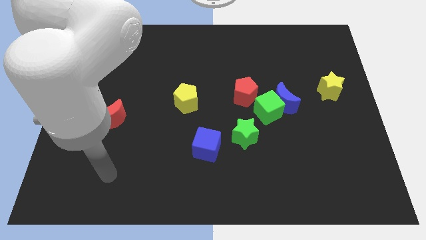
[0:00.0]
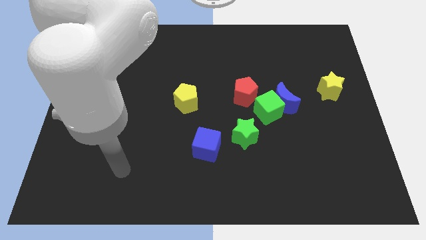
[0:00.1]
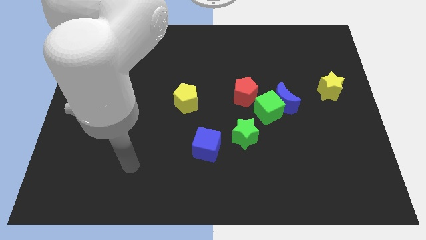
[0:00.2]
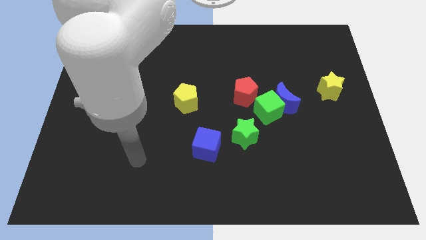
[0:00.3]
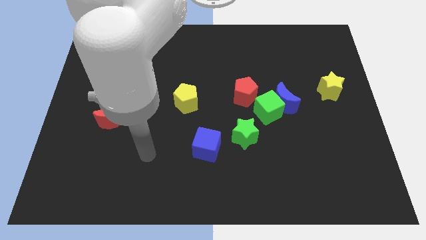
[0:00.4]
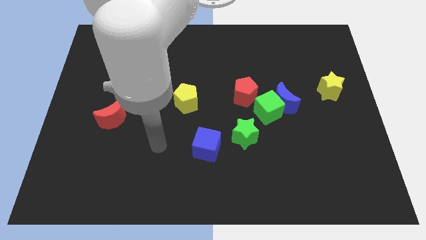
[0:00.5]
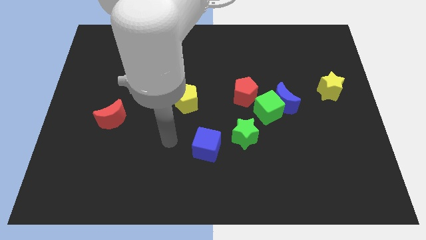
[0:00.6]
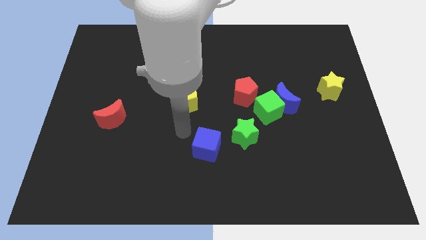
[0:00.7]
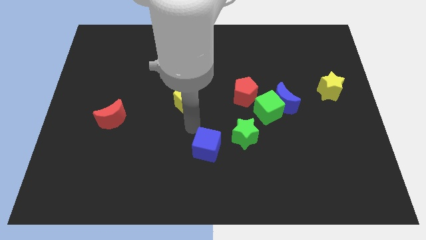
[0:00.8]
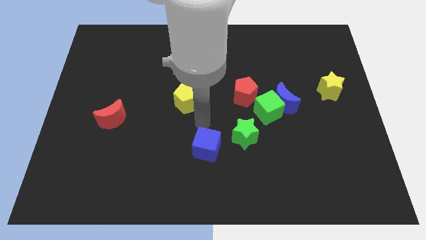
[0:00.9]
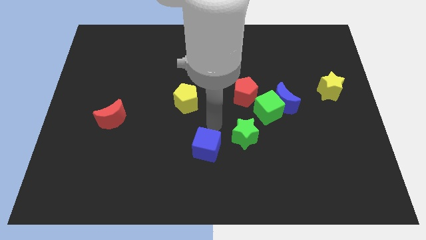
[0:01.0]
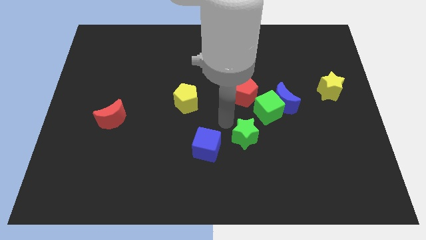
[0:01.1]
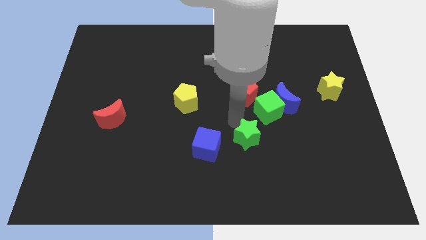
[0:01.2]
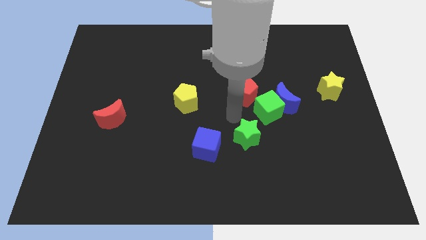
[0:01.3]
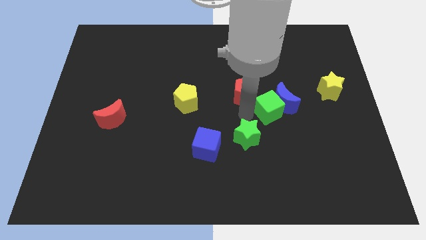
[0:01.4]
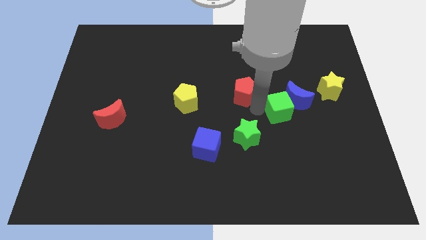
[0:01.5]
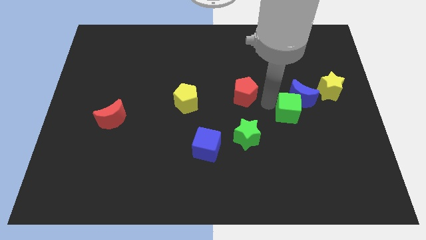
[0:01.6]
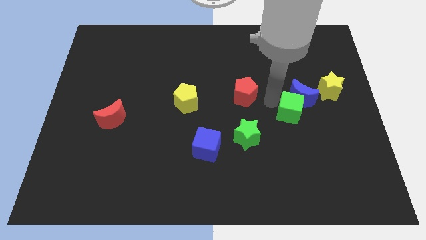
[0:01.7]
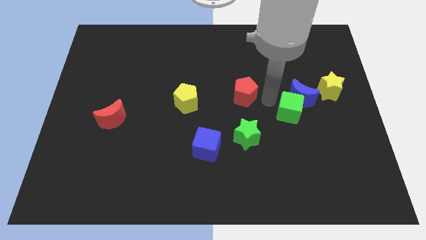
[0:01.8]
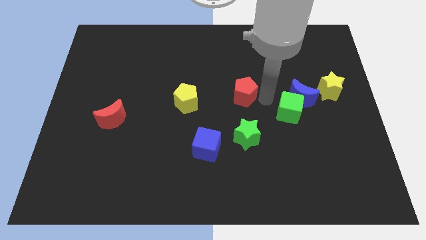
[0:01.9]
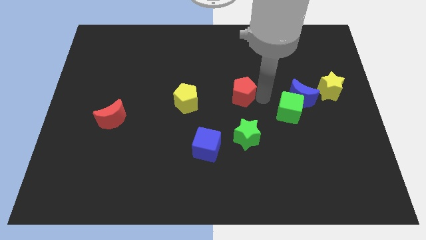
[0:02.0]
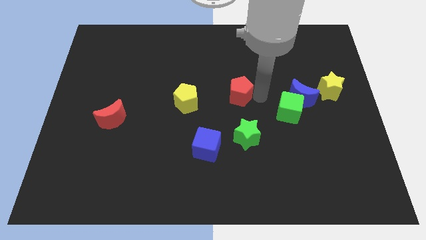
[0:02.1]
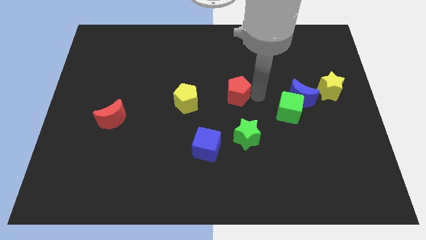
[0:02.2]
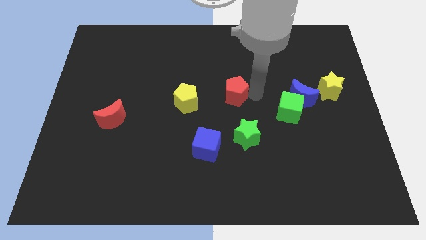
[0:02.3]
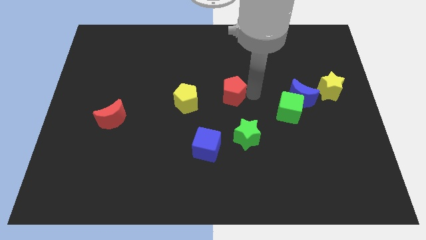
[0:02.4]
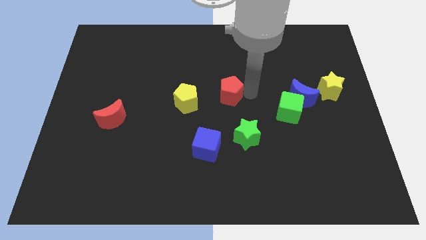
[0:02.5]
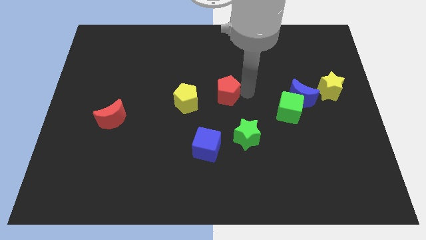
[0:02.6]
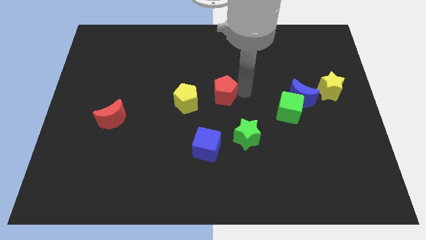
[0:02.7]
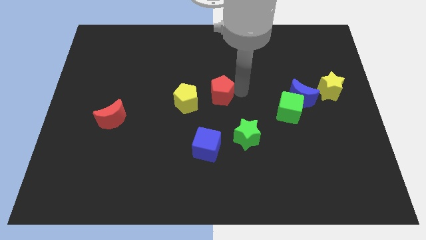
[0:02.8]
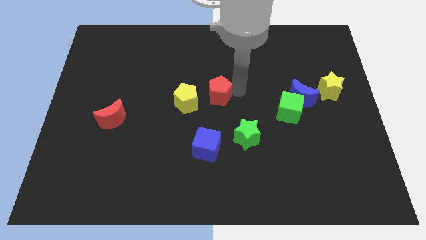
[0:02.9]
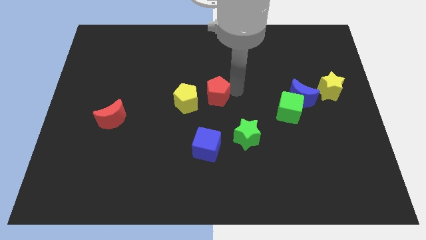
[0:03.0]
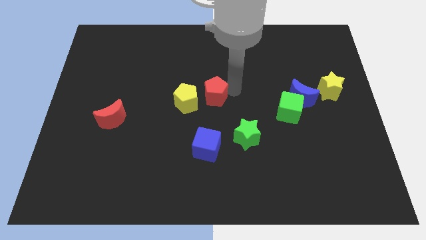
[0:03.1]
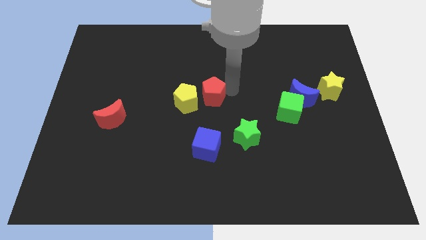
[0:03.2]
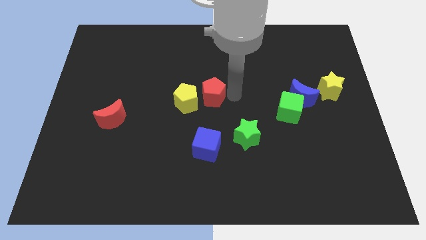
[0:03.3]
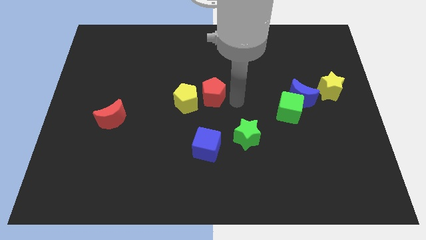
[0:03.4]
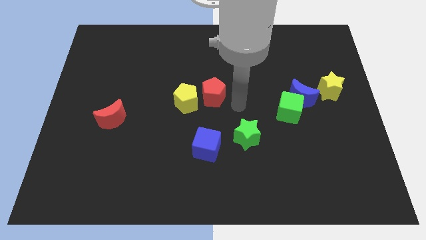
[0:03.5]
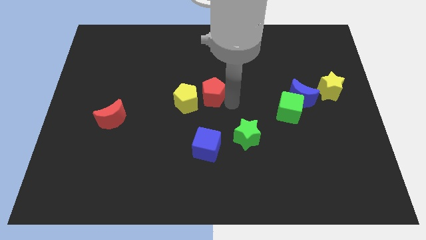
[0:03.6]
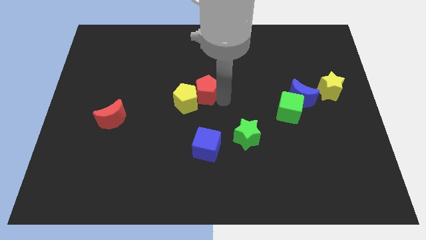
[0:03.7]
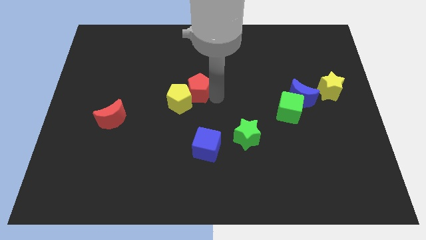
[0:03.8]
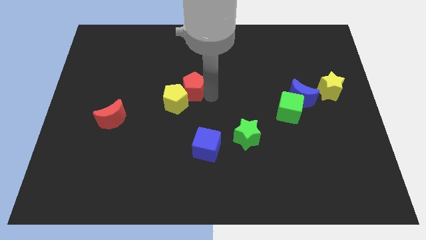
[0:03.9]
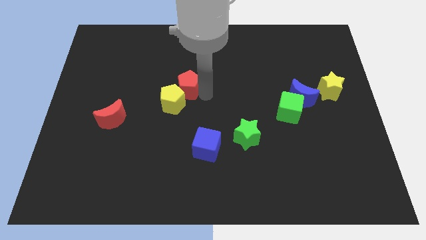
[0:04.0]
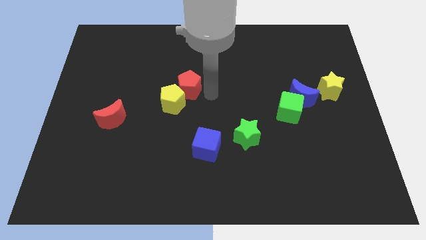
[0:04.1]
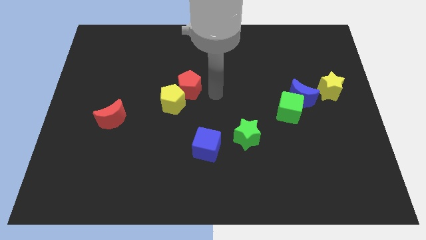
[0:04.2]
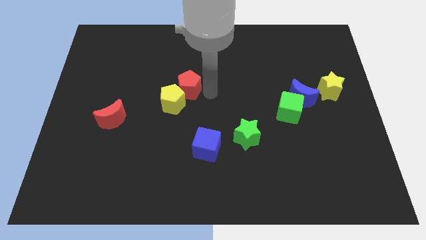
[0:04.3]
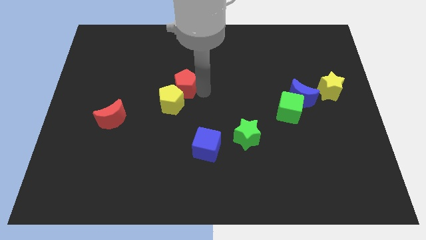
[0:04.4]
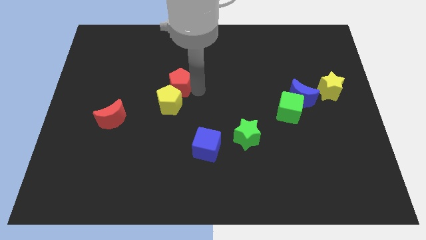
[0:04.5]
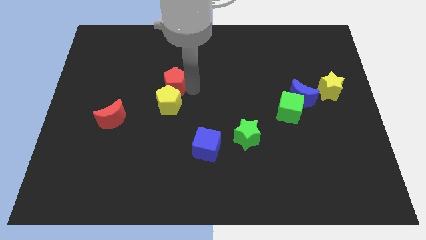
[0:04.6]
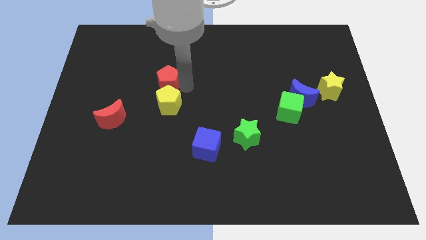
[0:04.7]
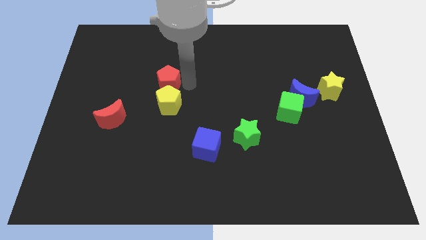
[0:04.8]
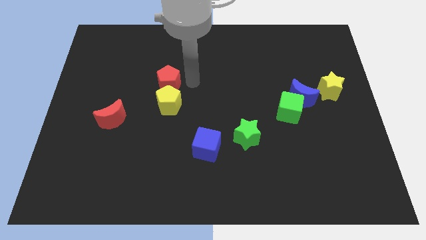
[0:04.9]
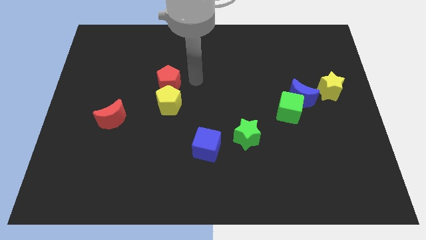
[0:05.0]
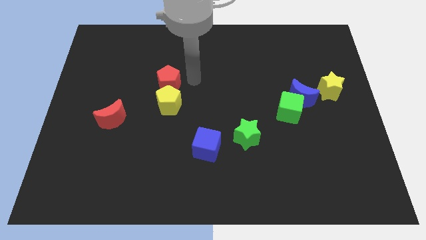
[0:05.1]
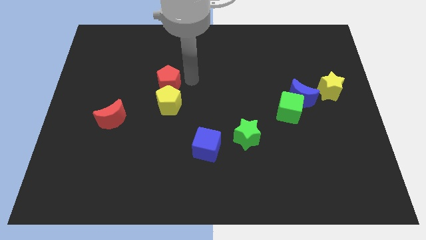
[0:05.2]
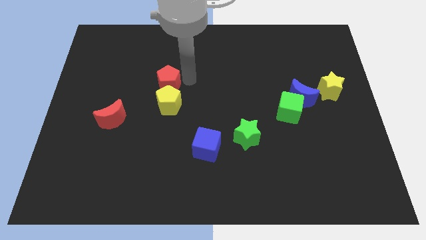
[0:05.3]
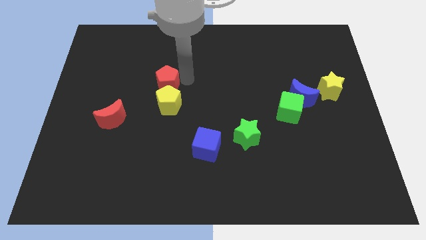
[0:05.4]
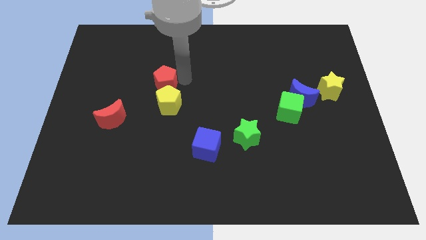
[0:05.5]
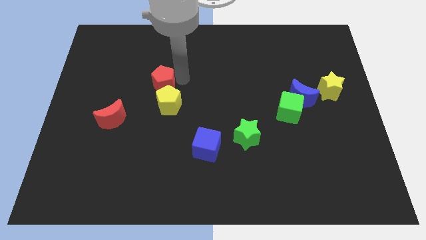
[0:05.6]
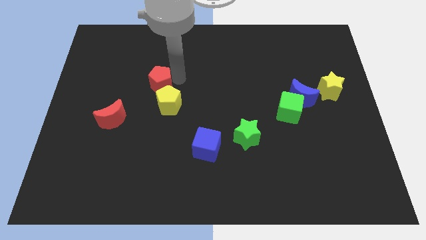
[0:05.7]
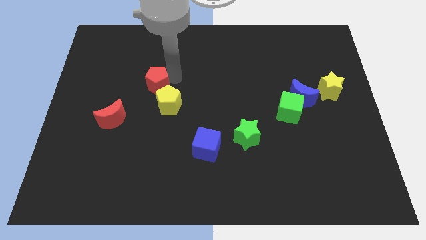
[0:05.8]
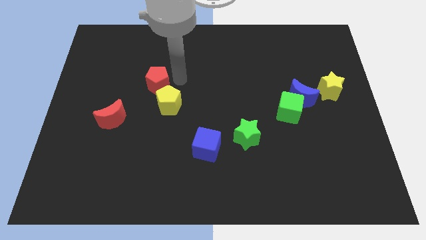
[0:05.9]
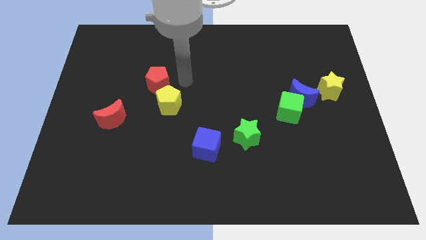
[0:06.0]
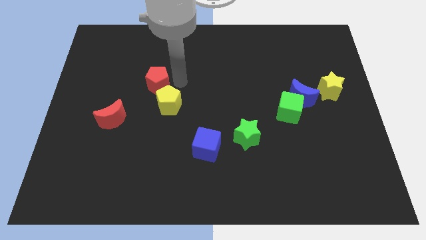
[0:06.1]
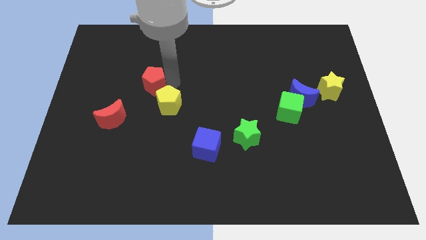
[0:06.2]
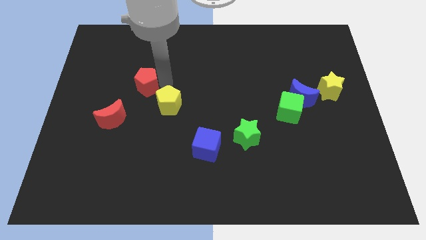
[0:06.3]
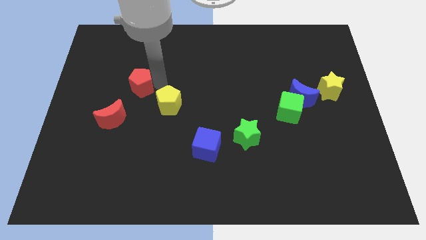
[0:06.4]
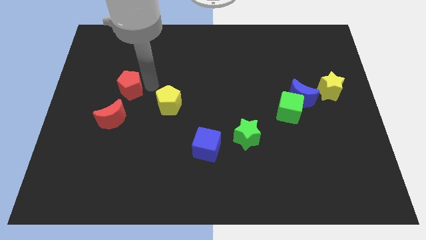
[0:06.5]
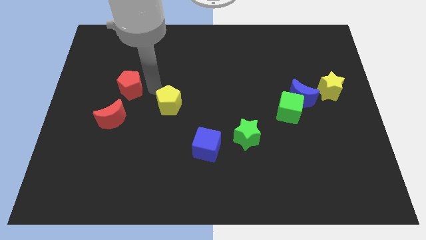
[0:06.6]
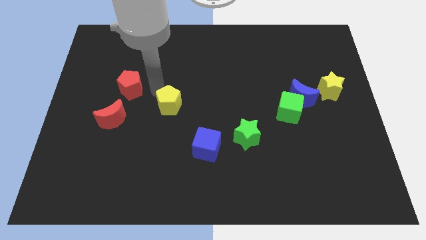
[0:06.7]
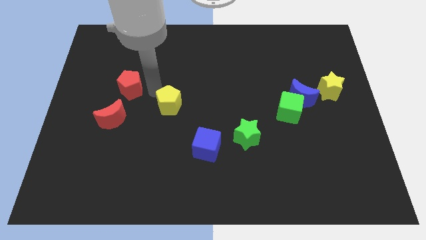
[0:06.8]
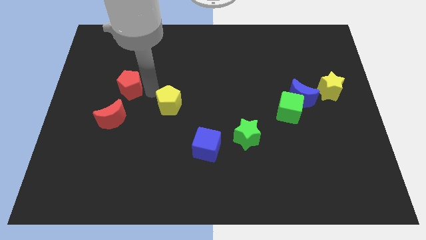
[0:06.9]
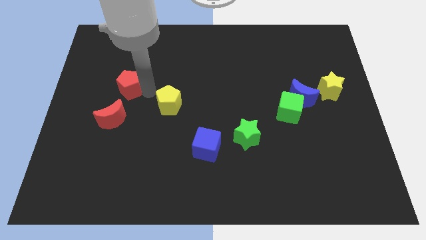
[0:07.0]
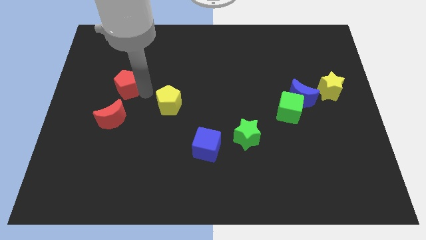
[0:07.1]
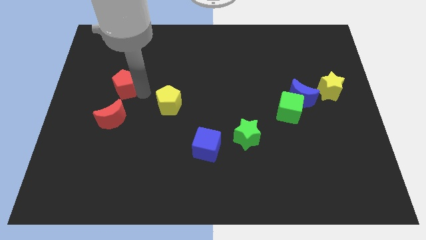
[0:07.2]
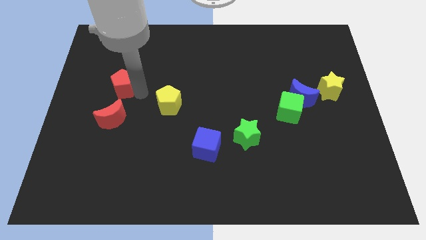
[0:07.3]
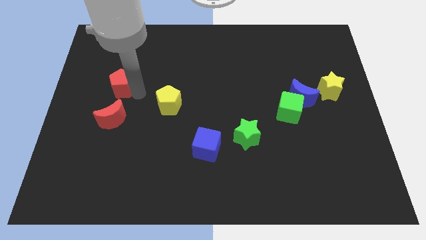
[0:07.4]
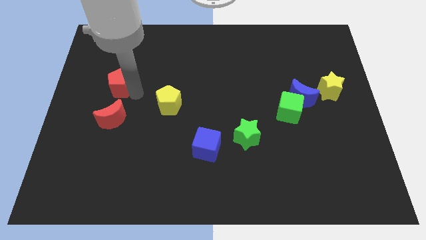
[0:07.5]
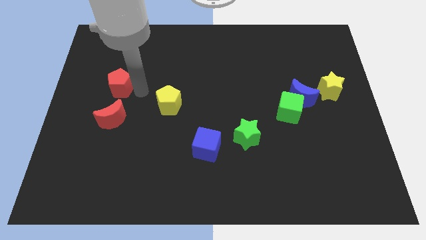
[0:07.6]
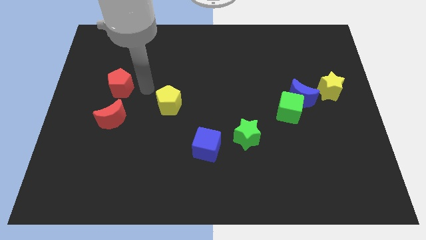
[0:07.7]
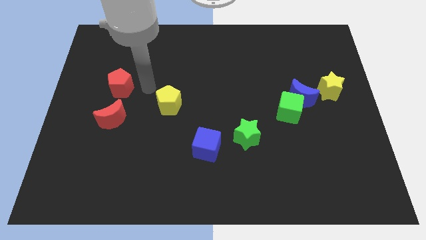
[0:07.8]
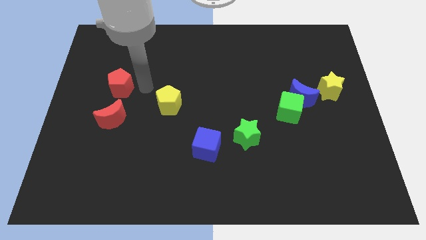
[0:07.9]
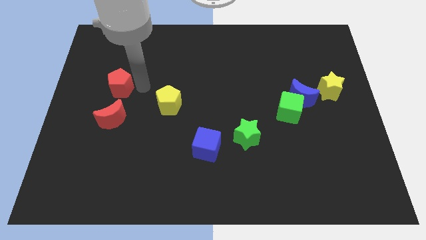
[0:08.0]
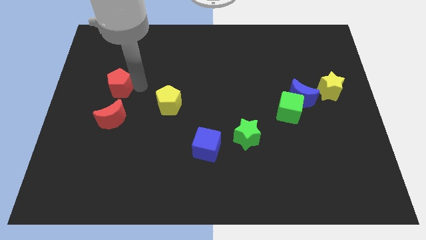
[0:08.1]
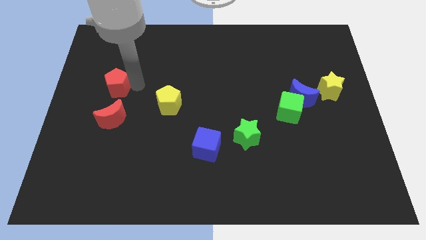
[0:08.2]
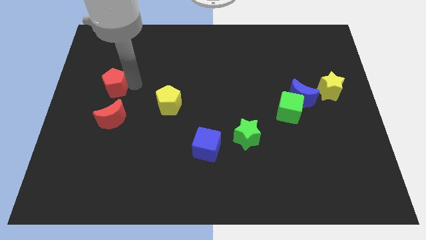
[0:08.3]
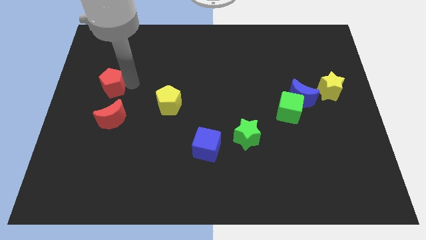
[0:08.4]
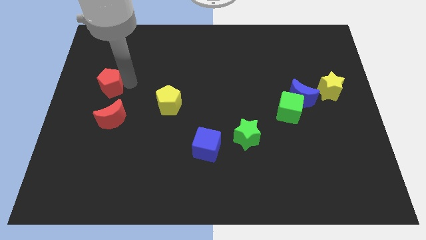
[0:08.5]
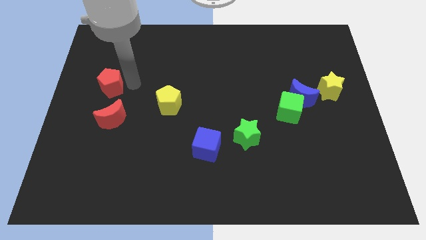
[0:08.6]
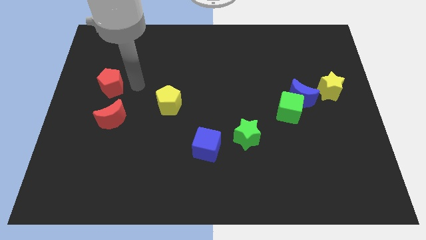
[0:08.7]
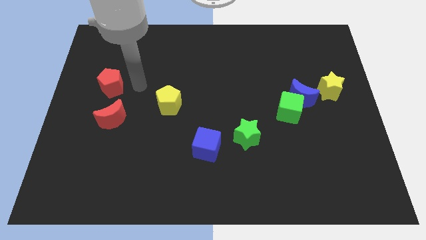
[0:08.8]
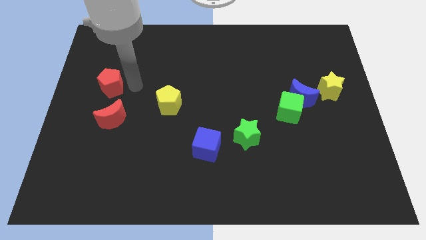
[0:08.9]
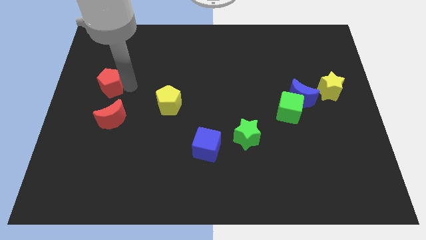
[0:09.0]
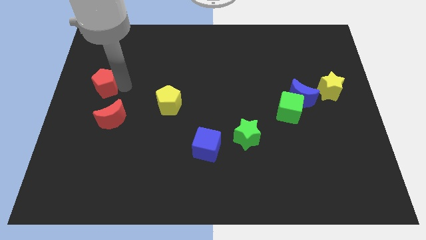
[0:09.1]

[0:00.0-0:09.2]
push the red pentagon to the left side
